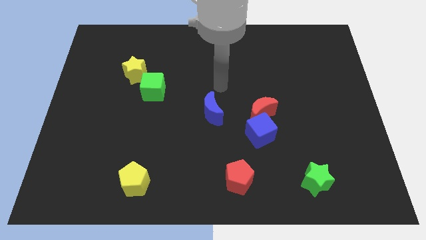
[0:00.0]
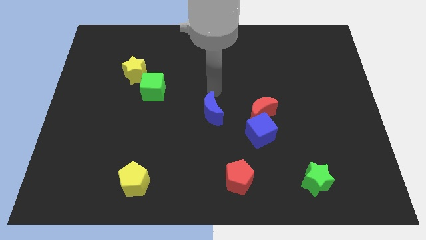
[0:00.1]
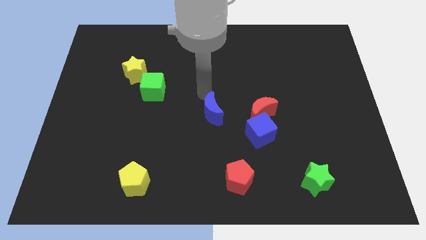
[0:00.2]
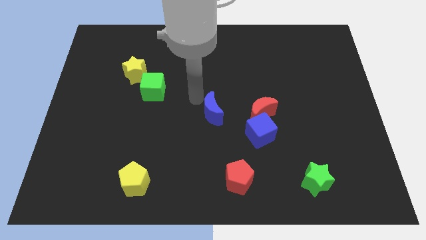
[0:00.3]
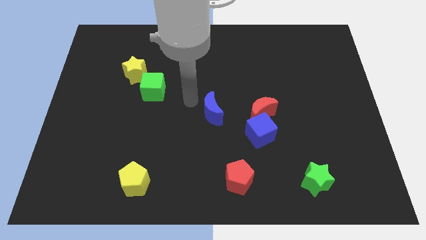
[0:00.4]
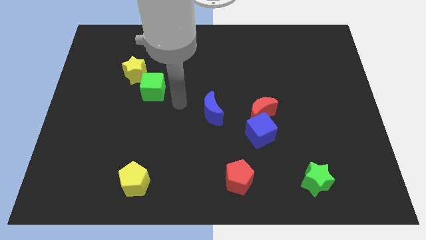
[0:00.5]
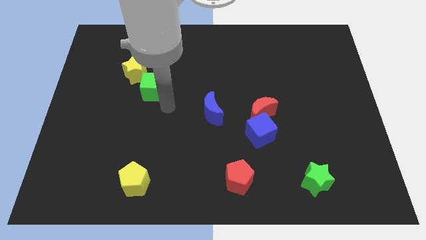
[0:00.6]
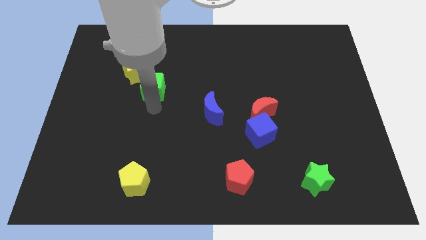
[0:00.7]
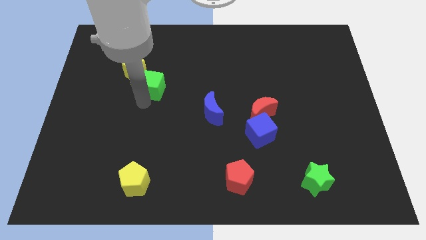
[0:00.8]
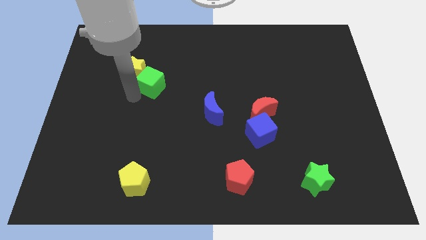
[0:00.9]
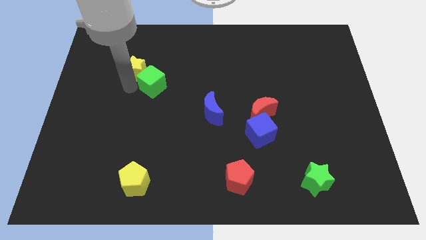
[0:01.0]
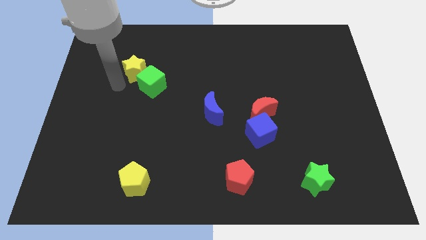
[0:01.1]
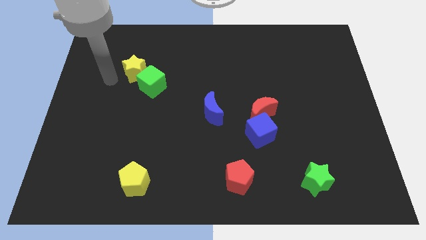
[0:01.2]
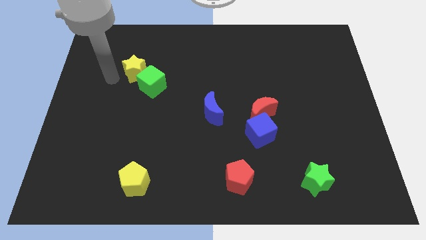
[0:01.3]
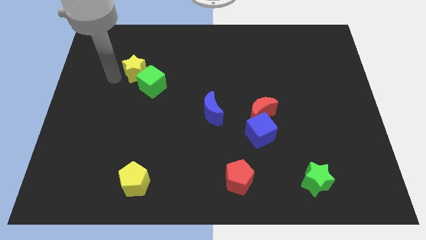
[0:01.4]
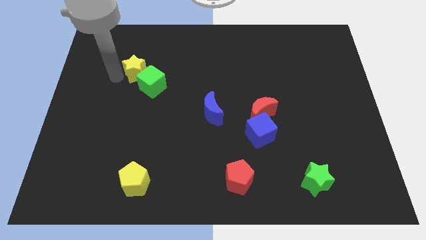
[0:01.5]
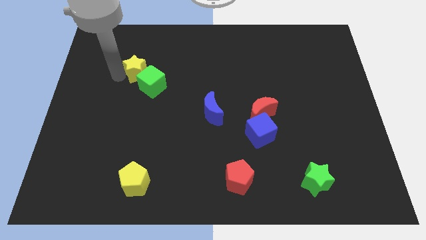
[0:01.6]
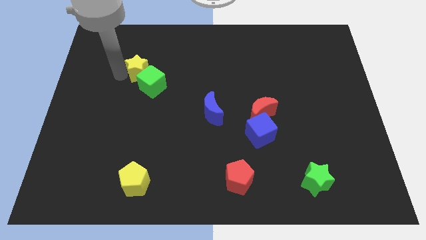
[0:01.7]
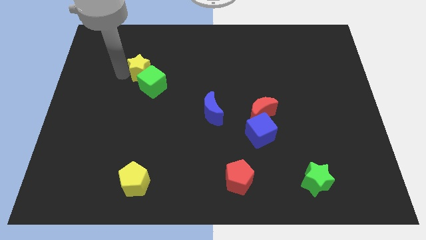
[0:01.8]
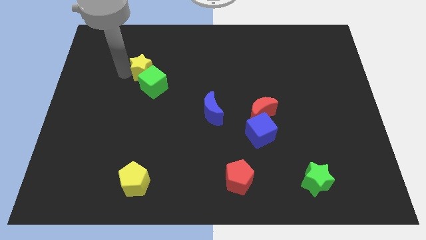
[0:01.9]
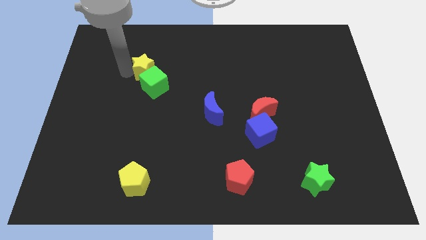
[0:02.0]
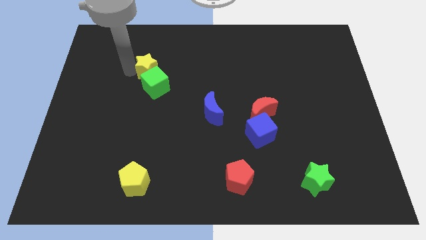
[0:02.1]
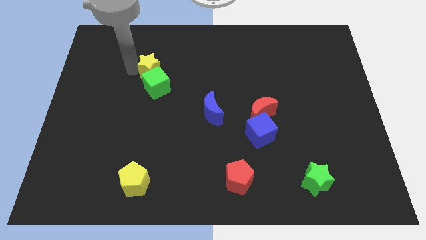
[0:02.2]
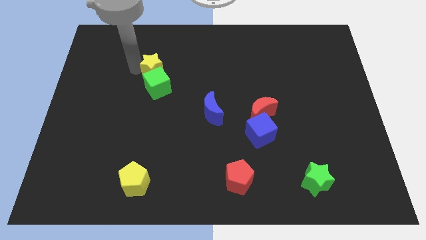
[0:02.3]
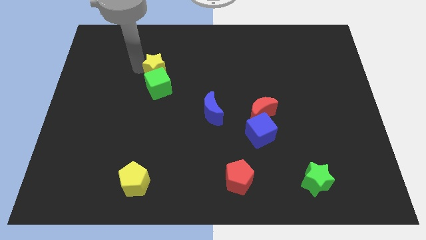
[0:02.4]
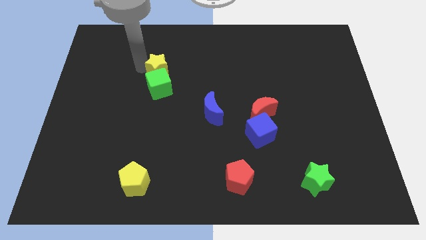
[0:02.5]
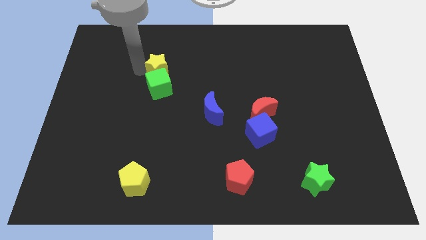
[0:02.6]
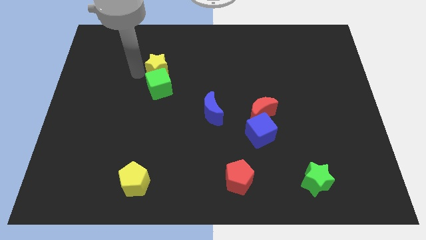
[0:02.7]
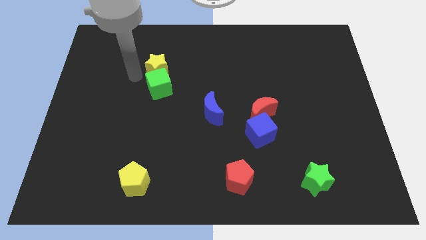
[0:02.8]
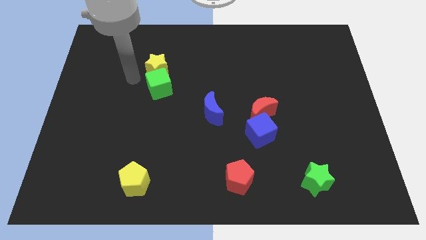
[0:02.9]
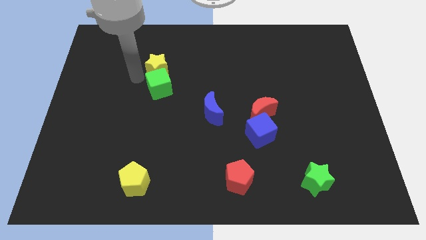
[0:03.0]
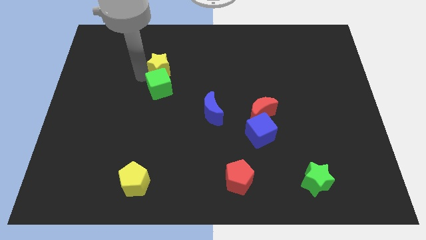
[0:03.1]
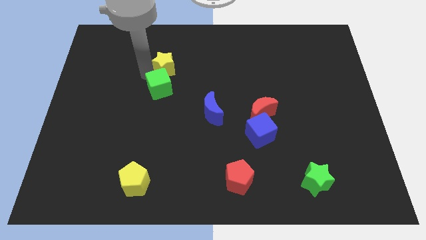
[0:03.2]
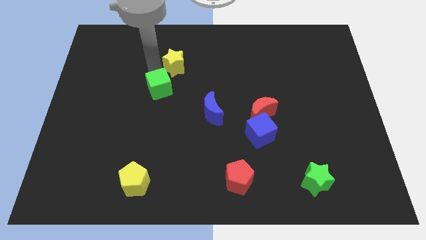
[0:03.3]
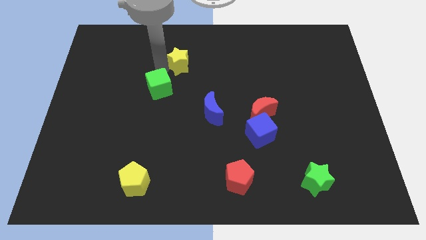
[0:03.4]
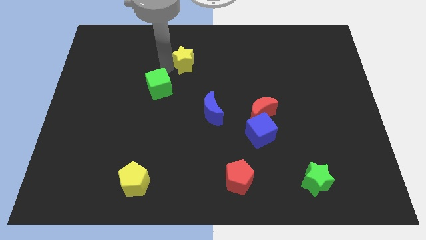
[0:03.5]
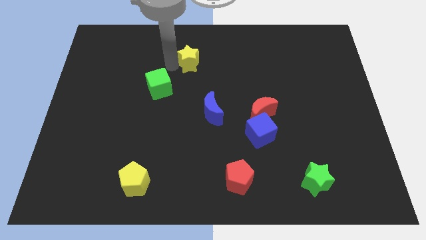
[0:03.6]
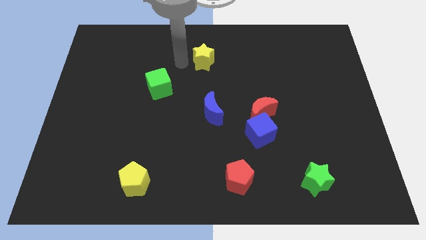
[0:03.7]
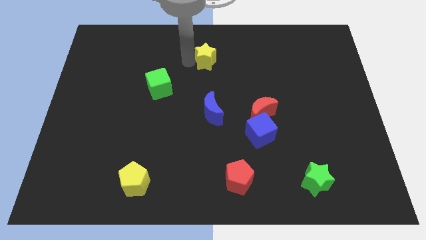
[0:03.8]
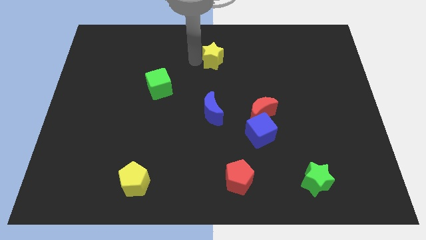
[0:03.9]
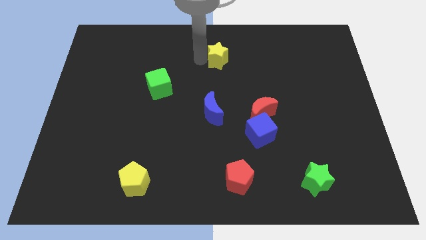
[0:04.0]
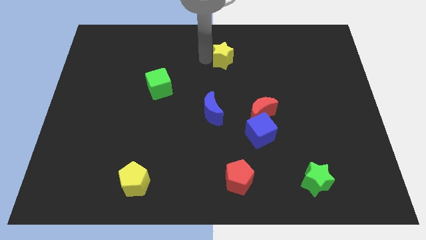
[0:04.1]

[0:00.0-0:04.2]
slide the yellow star to the right

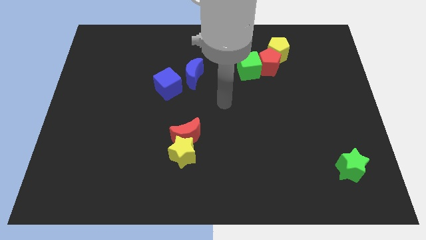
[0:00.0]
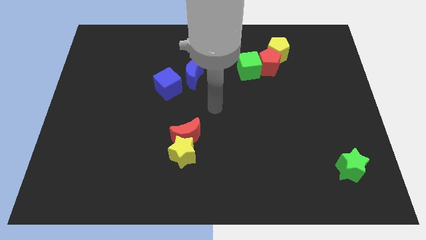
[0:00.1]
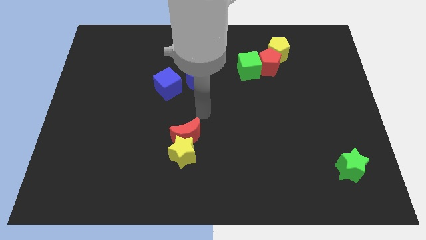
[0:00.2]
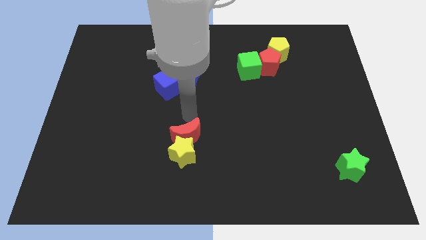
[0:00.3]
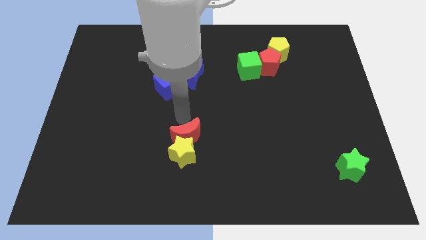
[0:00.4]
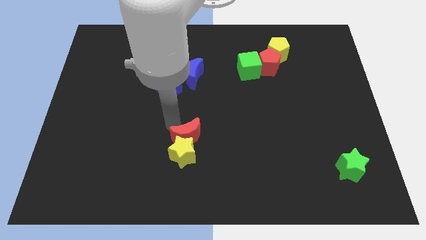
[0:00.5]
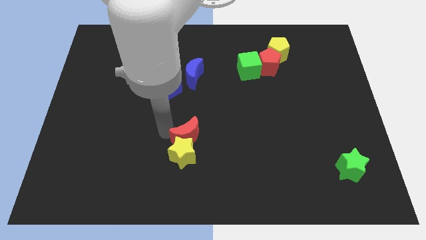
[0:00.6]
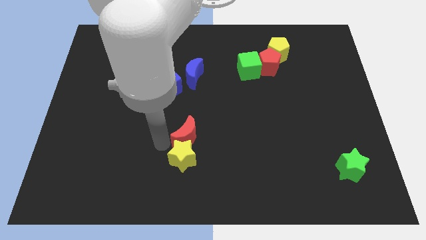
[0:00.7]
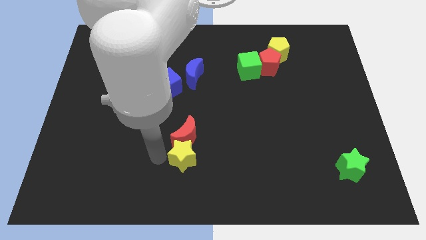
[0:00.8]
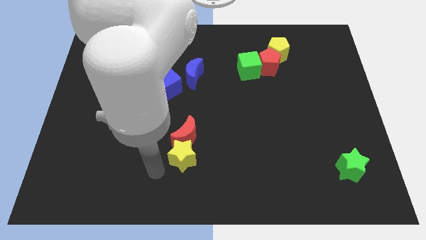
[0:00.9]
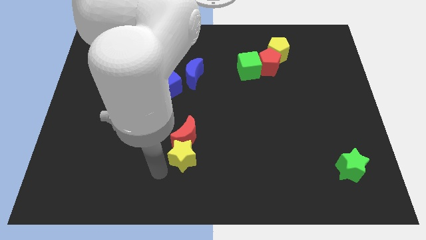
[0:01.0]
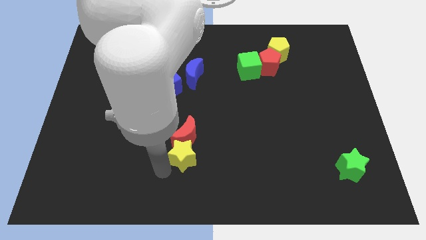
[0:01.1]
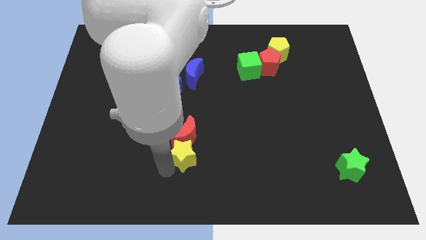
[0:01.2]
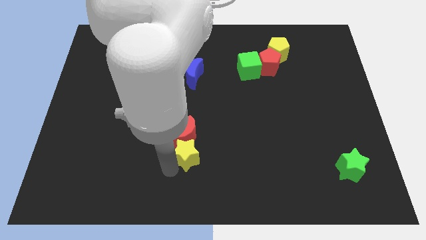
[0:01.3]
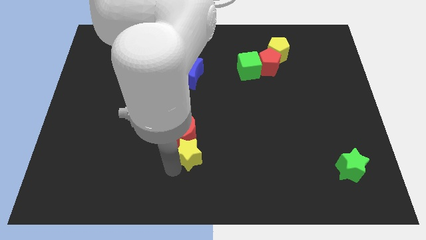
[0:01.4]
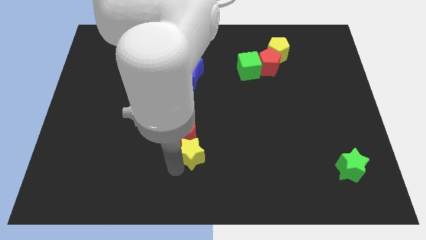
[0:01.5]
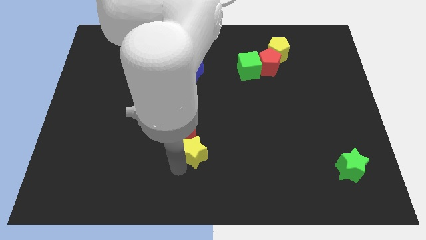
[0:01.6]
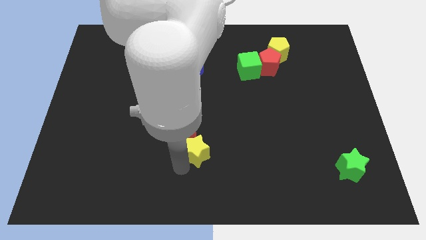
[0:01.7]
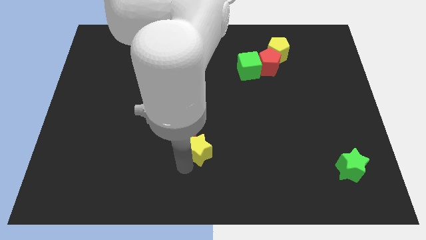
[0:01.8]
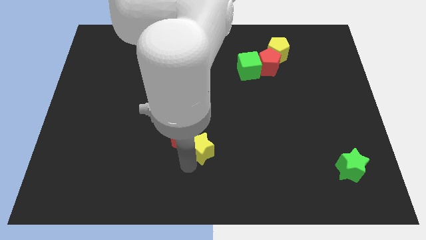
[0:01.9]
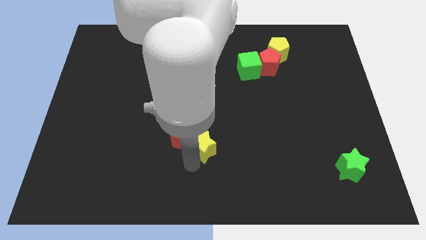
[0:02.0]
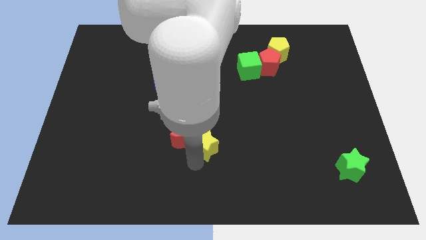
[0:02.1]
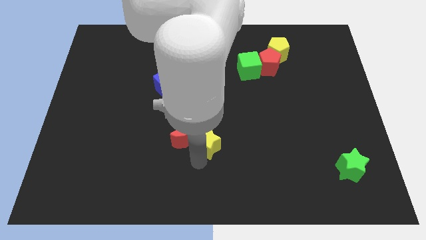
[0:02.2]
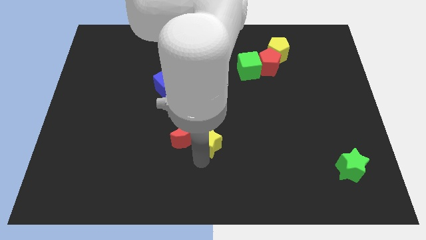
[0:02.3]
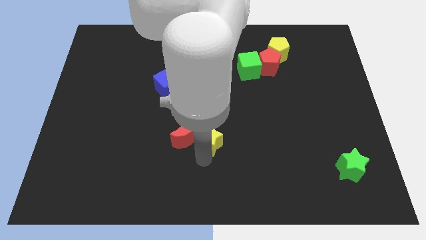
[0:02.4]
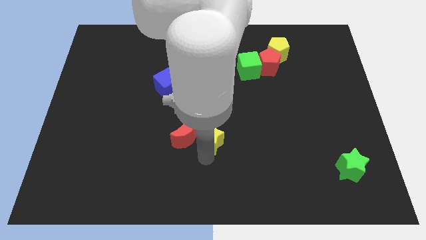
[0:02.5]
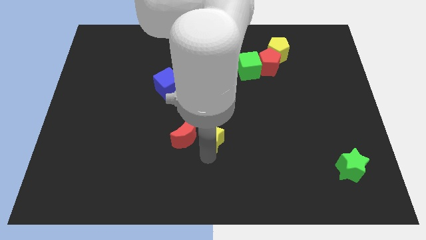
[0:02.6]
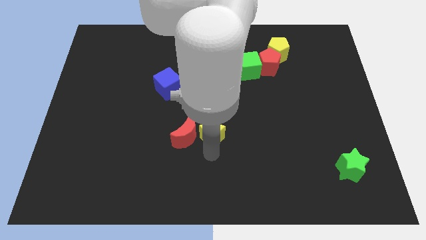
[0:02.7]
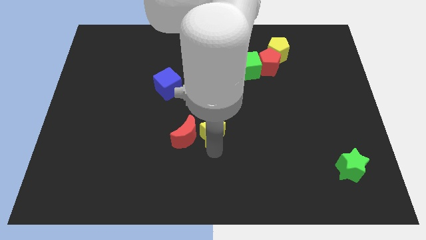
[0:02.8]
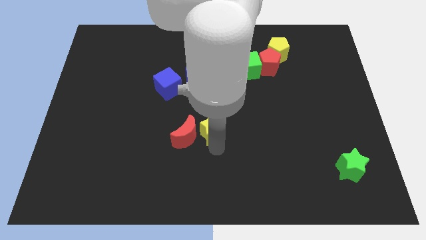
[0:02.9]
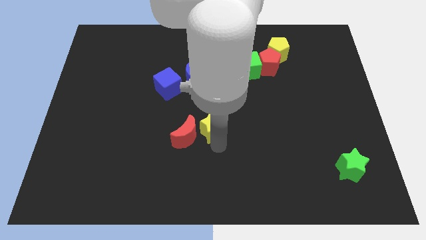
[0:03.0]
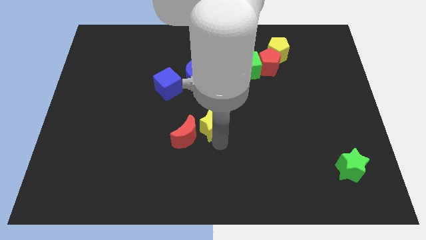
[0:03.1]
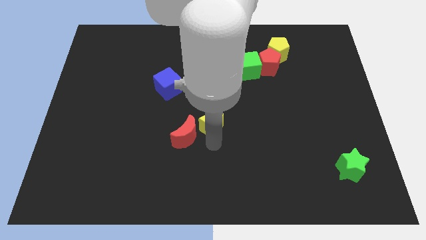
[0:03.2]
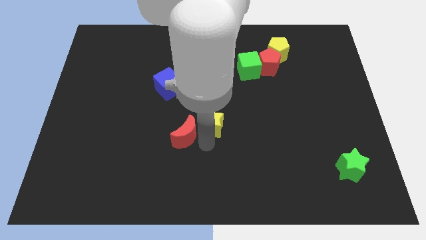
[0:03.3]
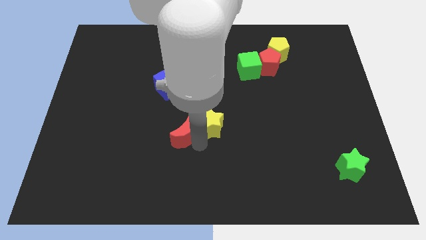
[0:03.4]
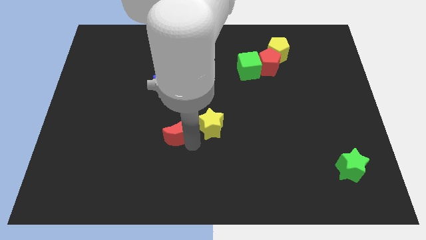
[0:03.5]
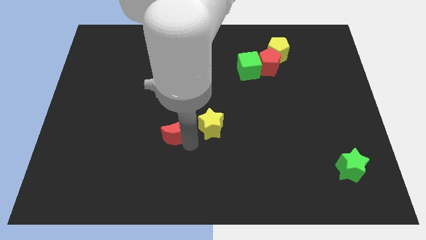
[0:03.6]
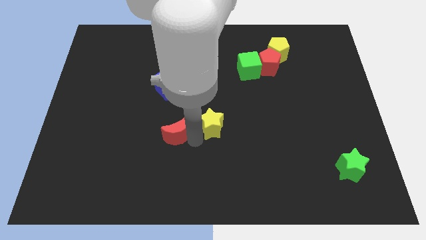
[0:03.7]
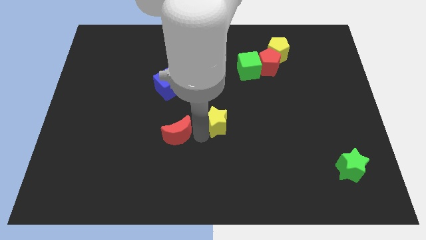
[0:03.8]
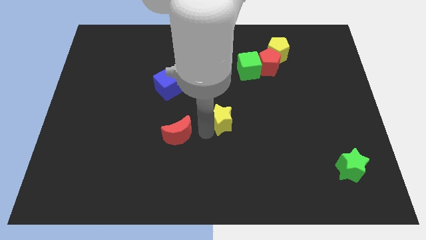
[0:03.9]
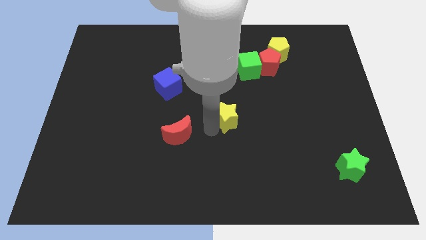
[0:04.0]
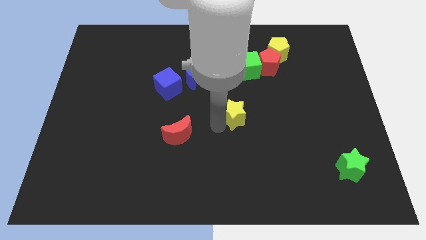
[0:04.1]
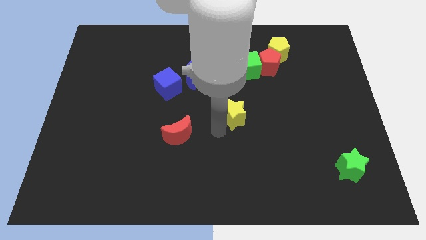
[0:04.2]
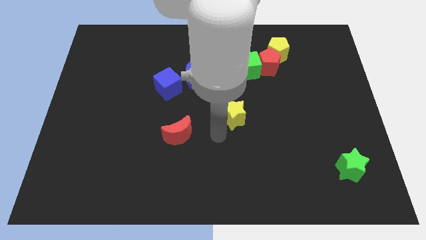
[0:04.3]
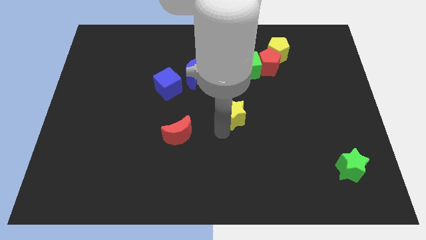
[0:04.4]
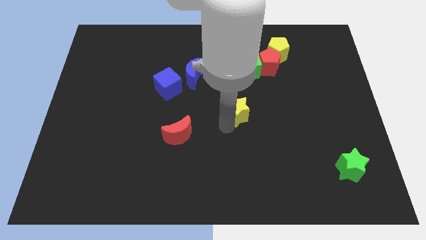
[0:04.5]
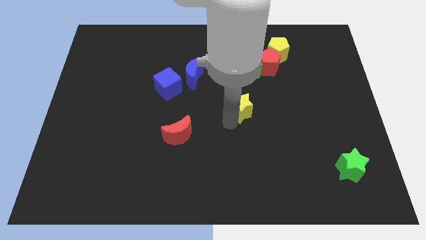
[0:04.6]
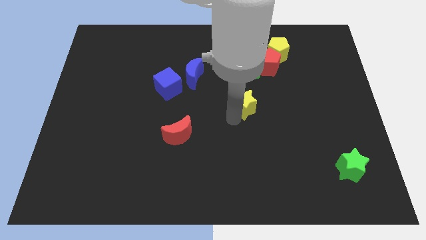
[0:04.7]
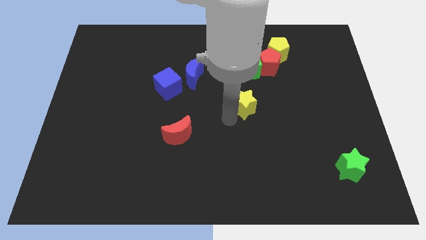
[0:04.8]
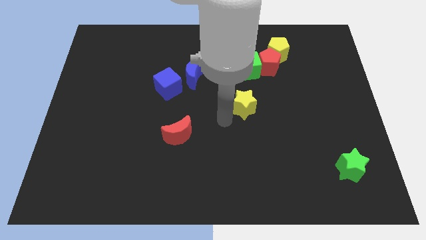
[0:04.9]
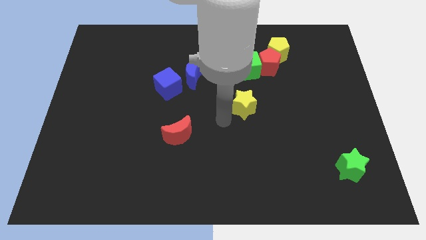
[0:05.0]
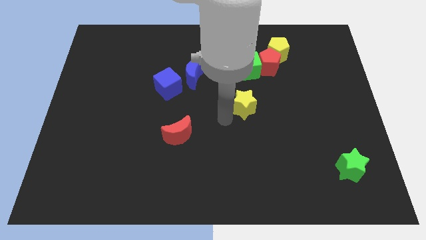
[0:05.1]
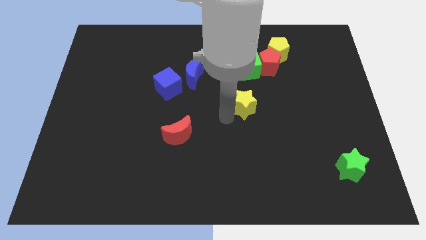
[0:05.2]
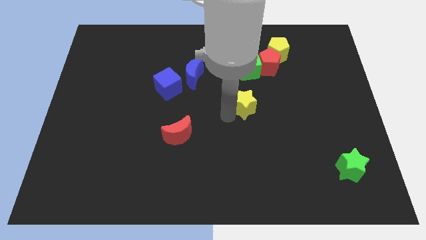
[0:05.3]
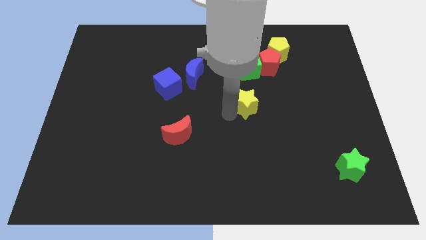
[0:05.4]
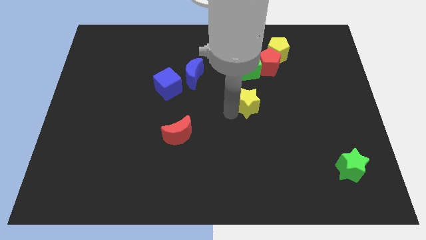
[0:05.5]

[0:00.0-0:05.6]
slide the yellow star up and right
